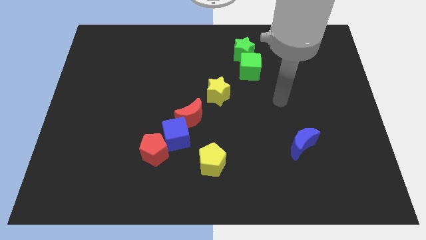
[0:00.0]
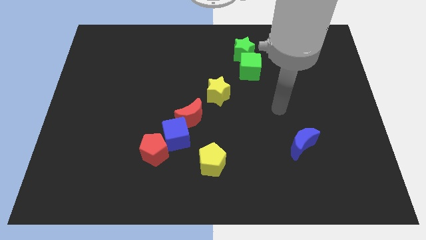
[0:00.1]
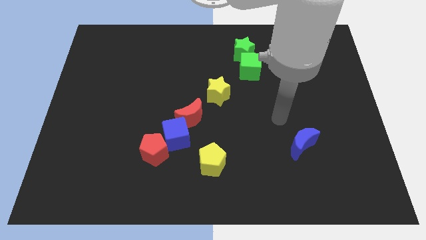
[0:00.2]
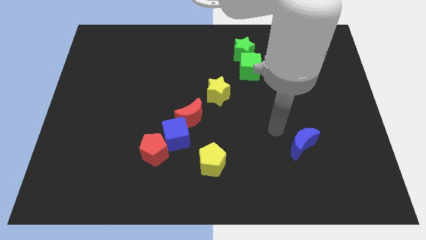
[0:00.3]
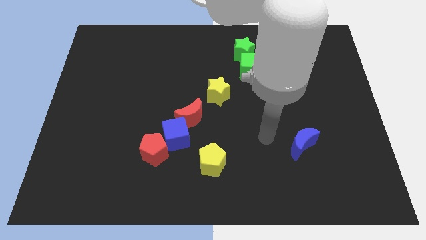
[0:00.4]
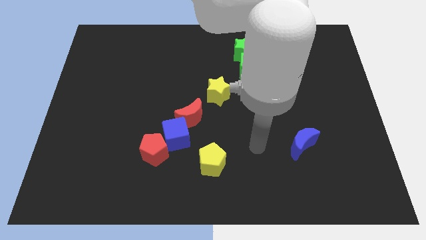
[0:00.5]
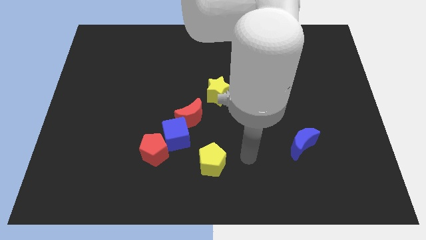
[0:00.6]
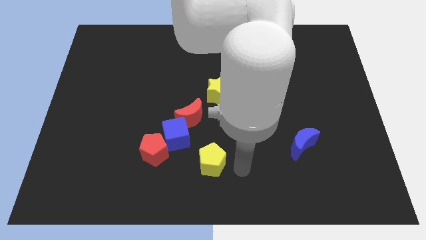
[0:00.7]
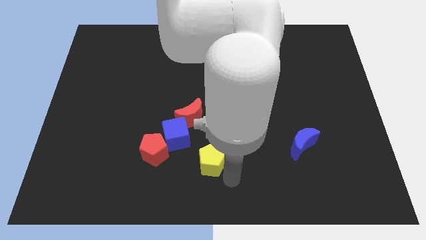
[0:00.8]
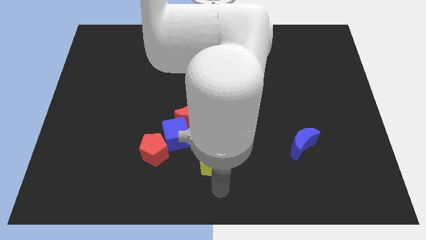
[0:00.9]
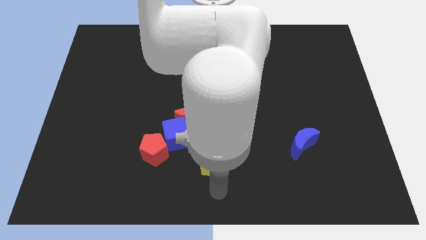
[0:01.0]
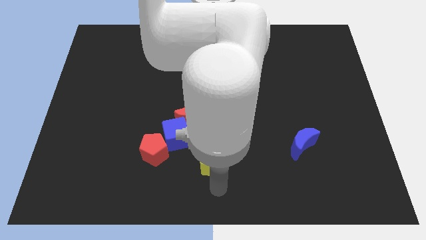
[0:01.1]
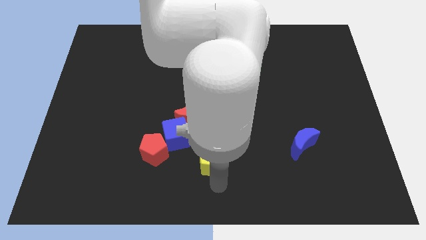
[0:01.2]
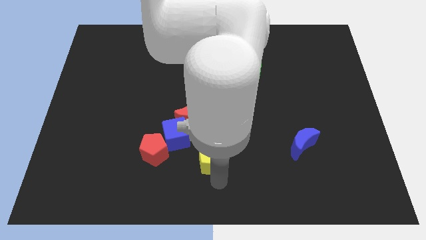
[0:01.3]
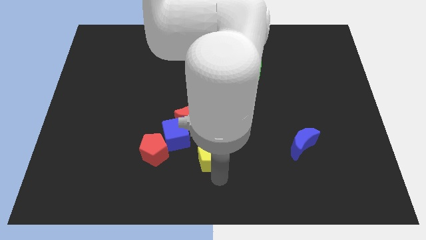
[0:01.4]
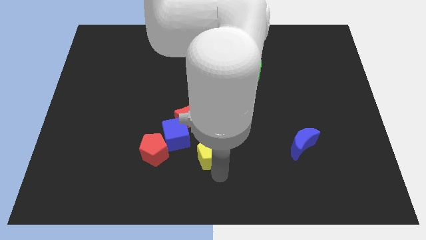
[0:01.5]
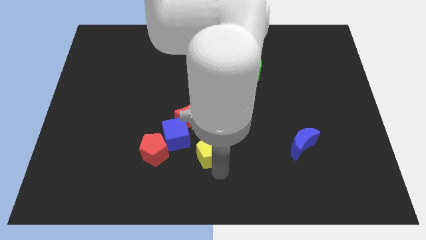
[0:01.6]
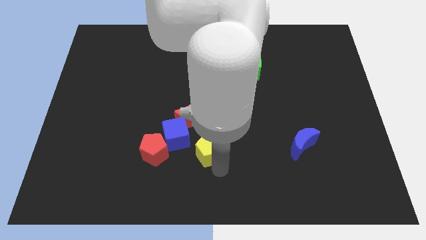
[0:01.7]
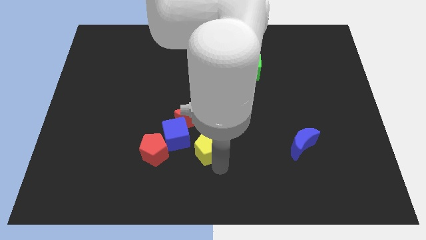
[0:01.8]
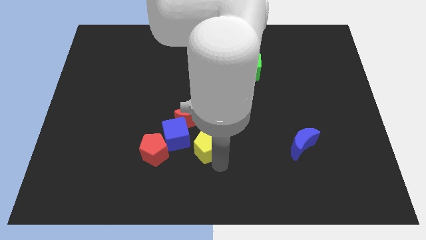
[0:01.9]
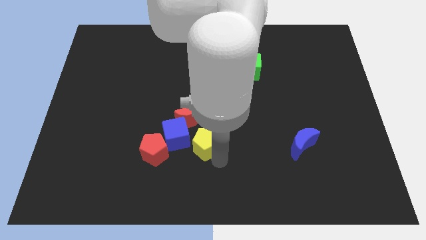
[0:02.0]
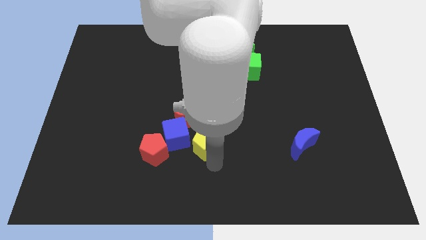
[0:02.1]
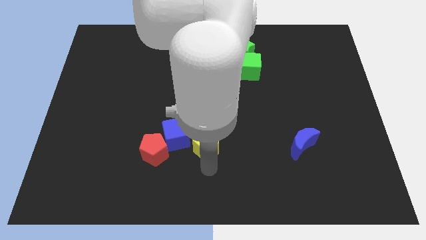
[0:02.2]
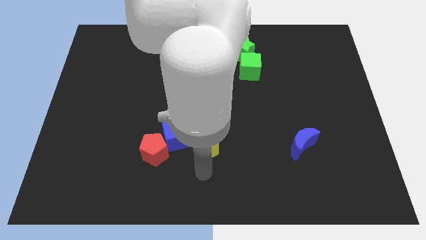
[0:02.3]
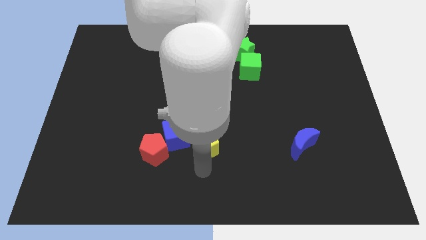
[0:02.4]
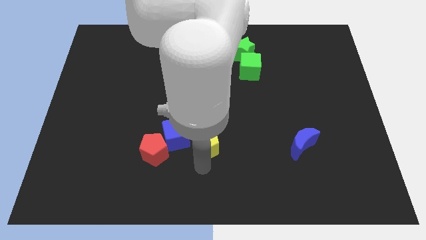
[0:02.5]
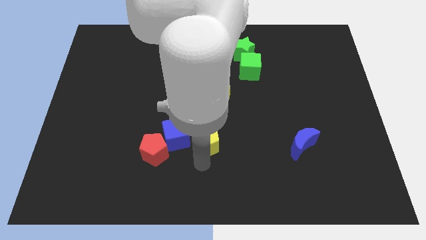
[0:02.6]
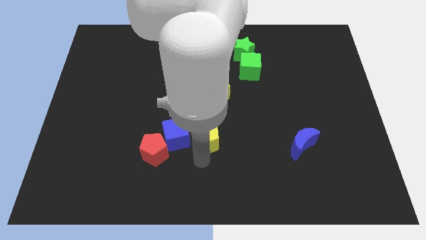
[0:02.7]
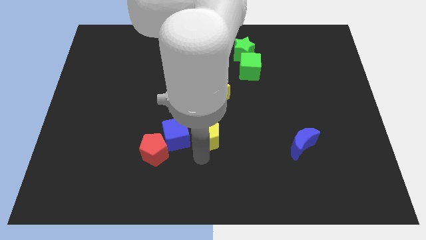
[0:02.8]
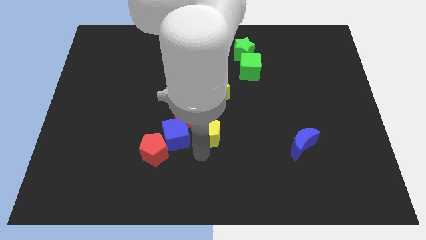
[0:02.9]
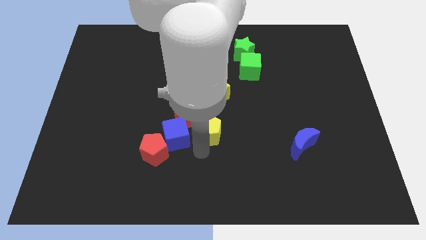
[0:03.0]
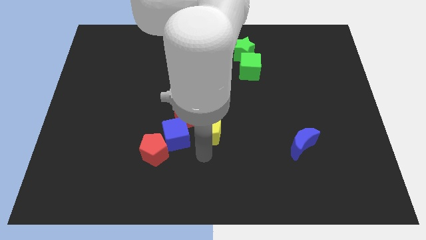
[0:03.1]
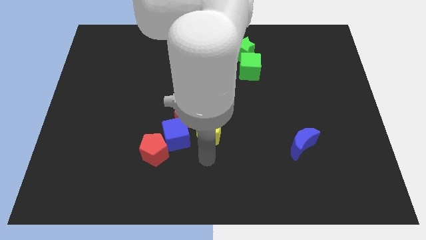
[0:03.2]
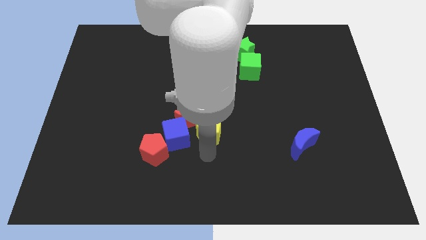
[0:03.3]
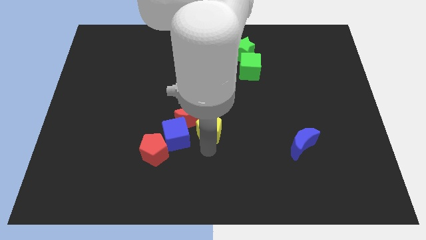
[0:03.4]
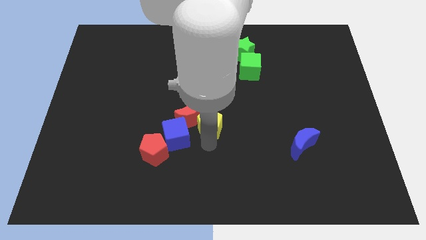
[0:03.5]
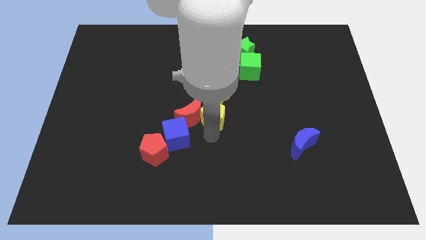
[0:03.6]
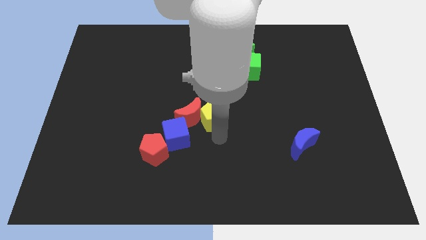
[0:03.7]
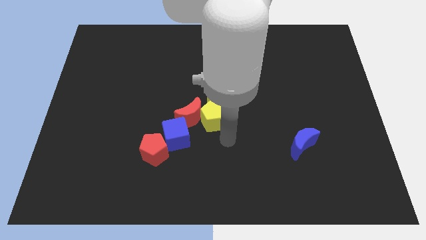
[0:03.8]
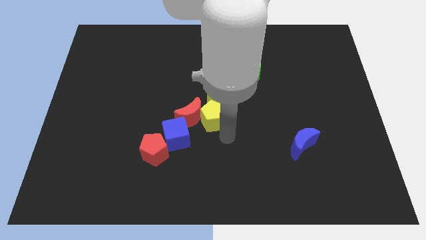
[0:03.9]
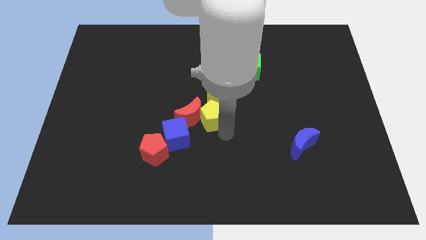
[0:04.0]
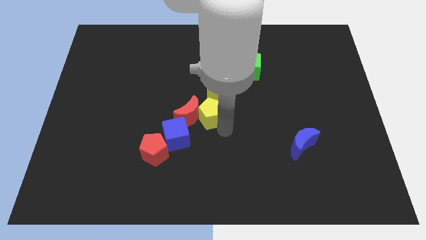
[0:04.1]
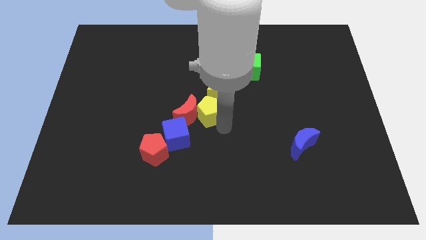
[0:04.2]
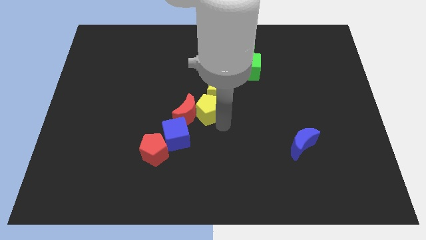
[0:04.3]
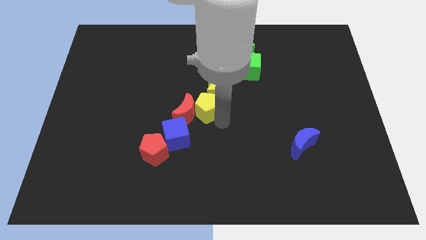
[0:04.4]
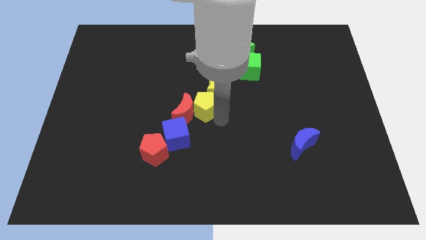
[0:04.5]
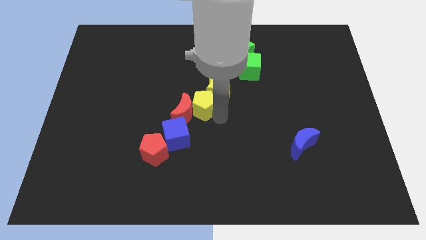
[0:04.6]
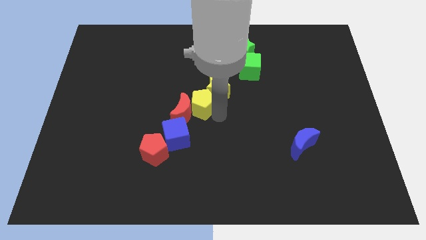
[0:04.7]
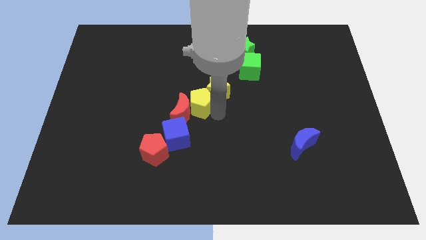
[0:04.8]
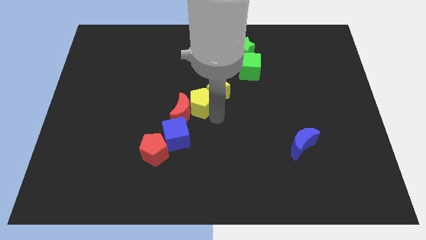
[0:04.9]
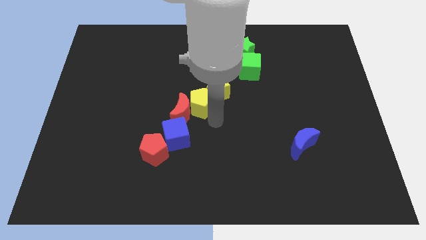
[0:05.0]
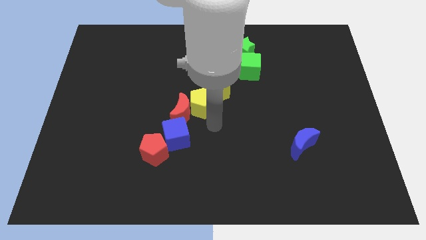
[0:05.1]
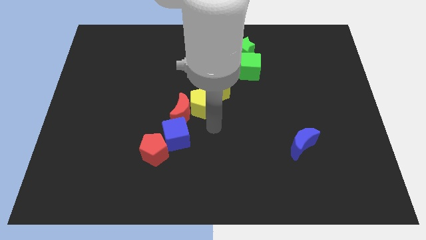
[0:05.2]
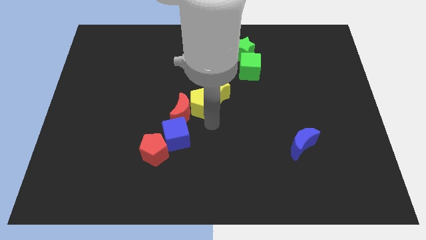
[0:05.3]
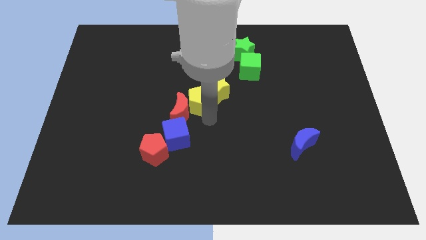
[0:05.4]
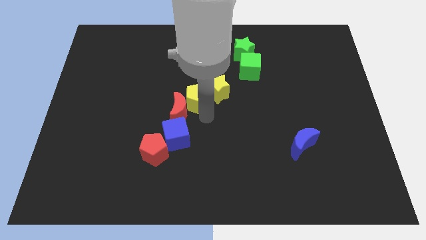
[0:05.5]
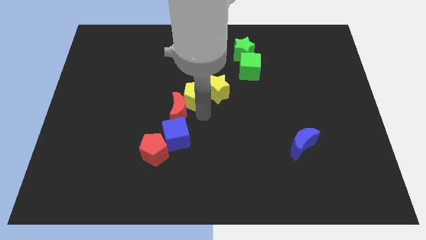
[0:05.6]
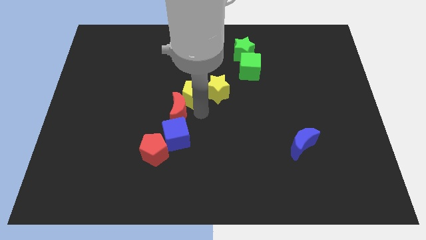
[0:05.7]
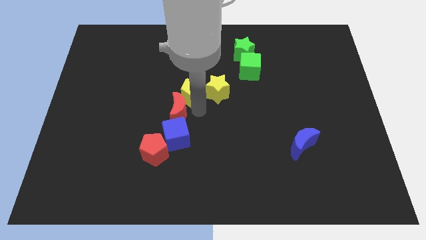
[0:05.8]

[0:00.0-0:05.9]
put the yellow pentagon to the top left of the yellow star

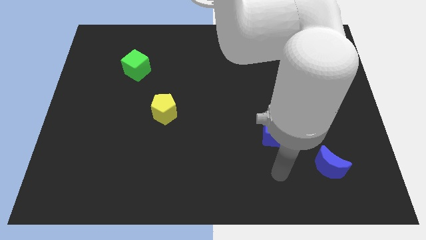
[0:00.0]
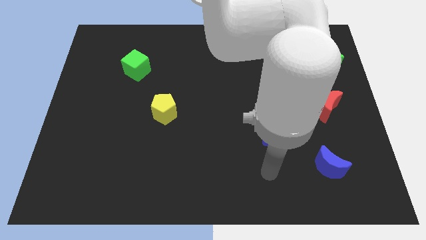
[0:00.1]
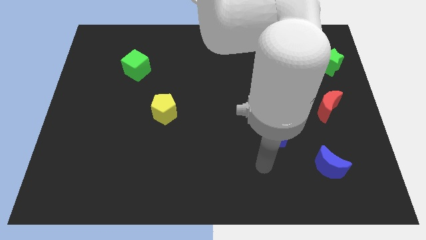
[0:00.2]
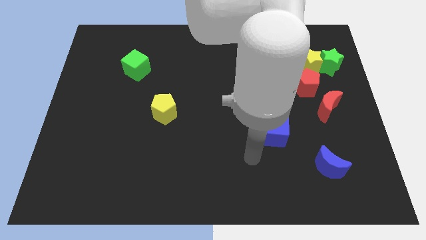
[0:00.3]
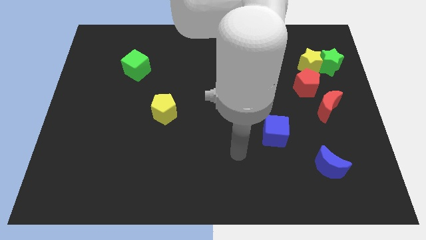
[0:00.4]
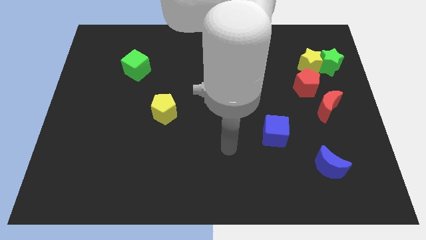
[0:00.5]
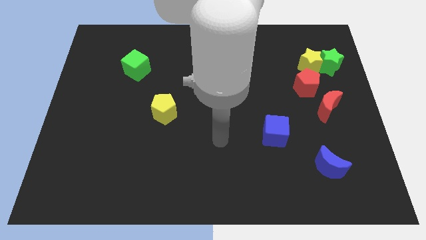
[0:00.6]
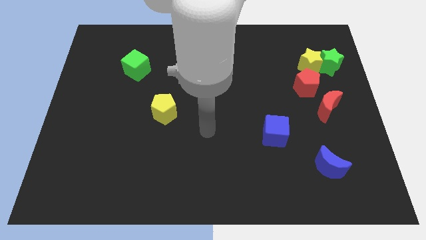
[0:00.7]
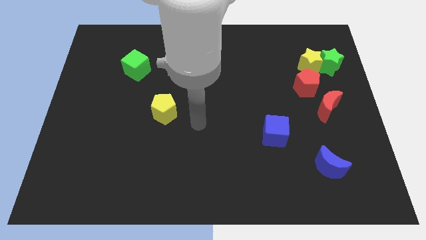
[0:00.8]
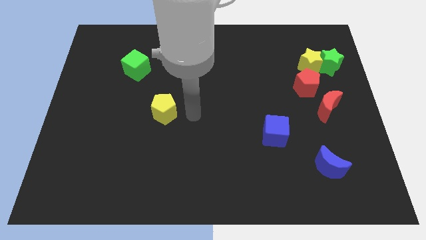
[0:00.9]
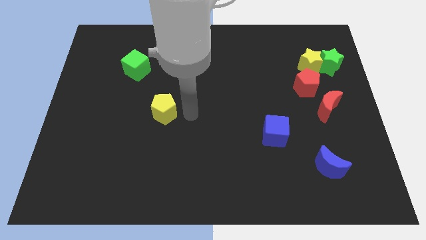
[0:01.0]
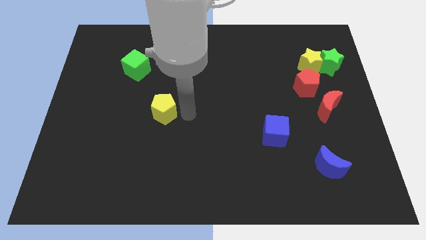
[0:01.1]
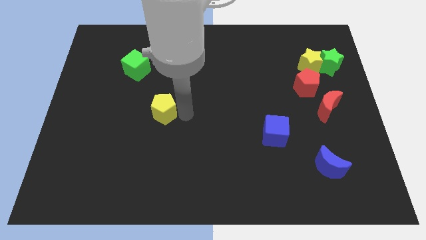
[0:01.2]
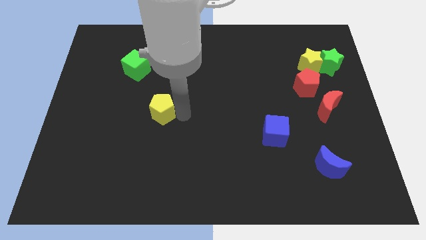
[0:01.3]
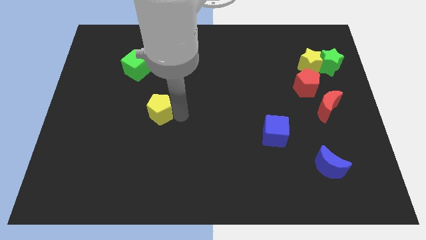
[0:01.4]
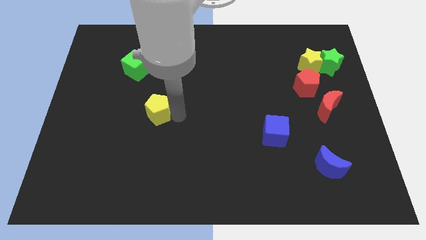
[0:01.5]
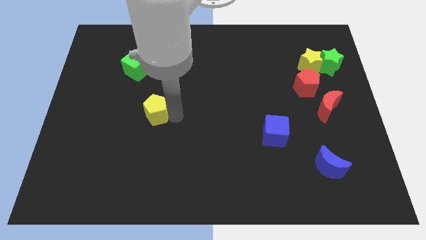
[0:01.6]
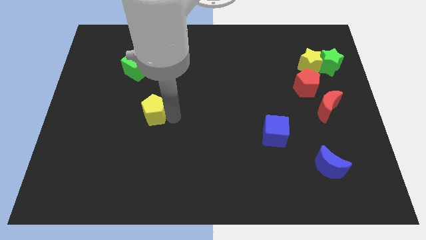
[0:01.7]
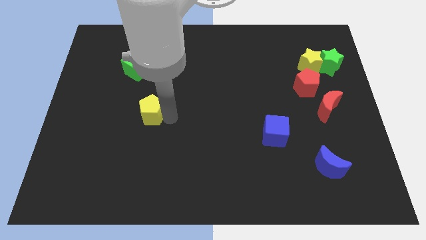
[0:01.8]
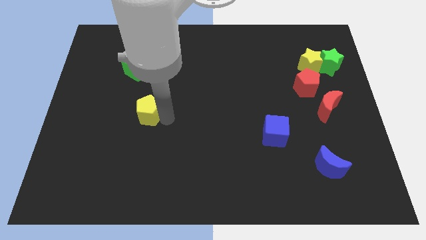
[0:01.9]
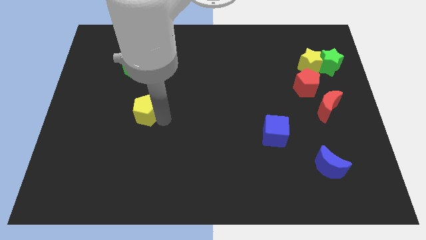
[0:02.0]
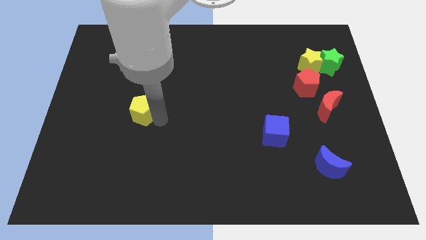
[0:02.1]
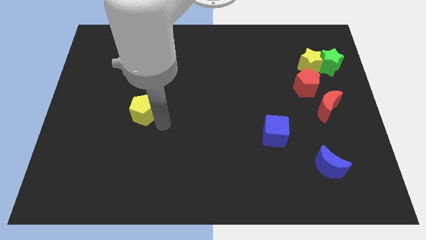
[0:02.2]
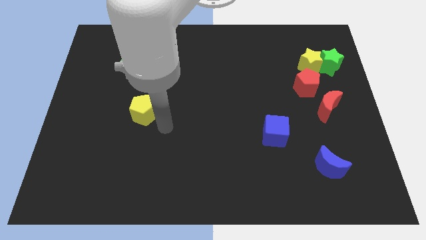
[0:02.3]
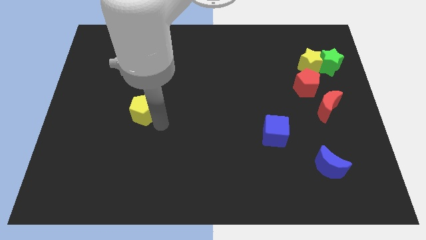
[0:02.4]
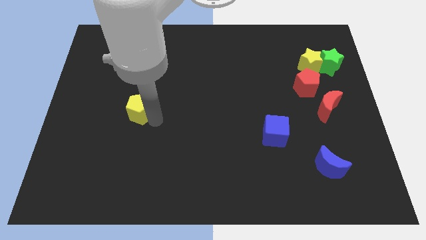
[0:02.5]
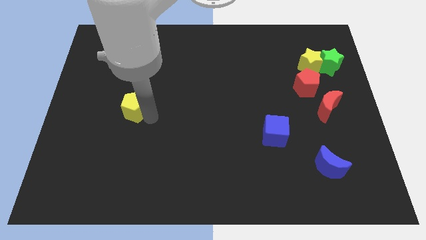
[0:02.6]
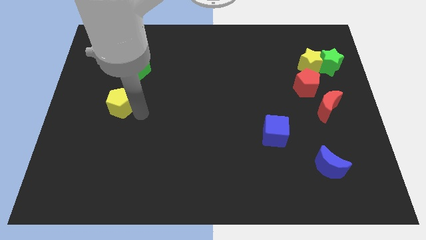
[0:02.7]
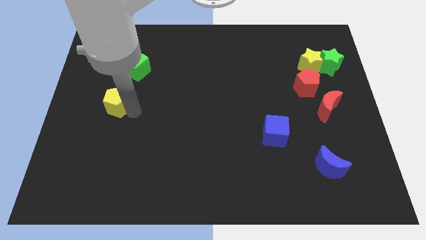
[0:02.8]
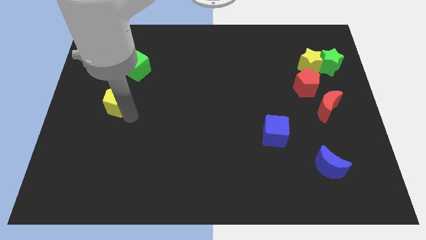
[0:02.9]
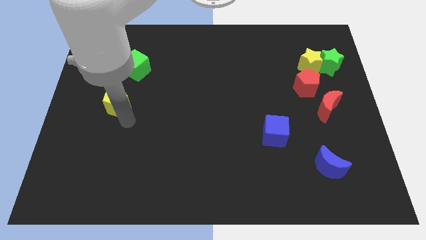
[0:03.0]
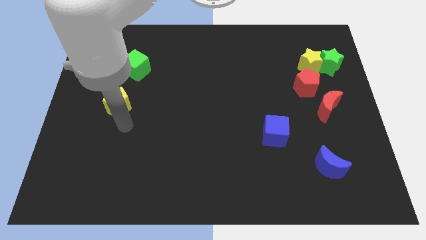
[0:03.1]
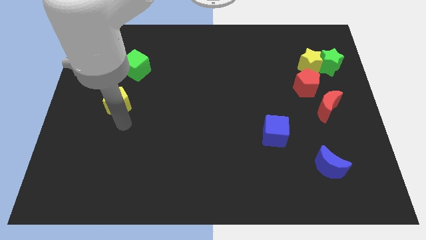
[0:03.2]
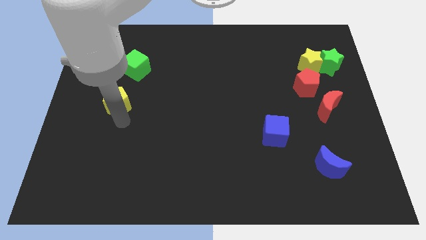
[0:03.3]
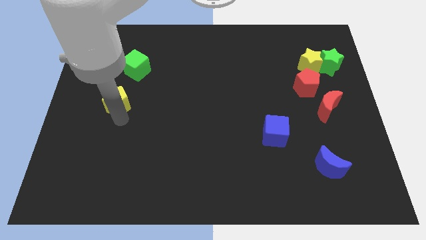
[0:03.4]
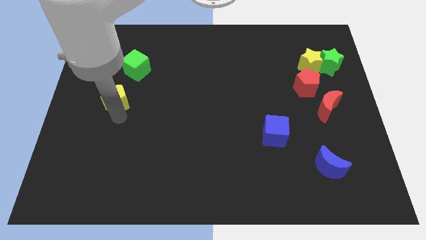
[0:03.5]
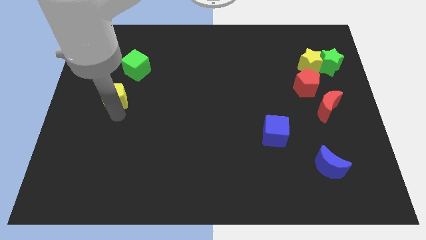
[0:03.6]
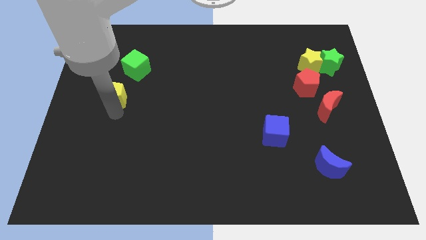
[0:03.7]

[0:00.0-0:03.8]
push the yellow pentagon diagonally down and to the left of the green cube
